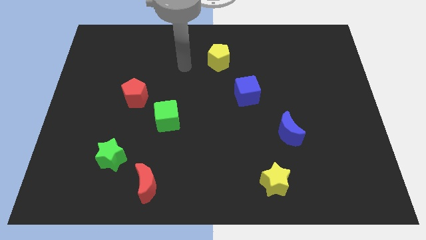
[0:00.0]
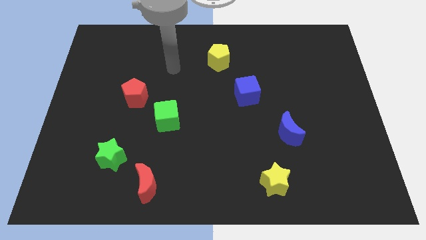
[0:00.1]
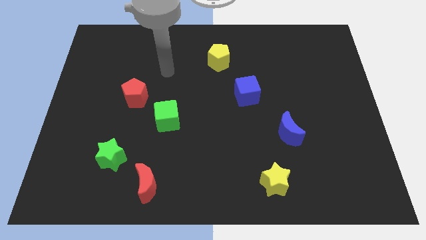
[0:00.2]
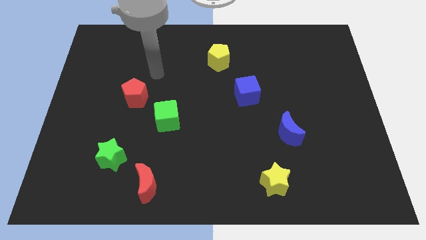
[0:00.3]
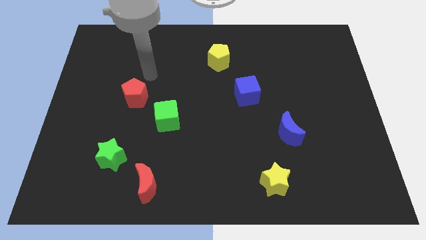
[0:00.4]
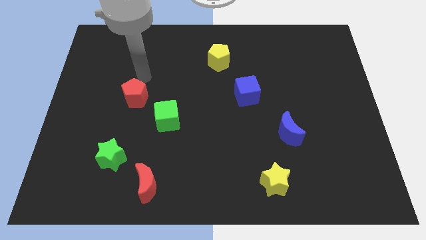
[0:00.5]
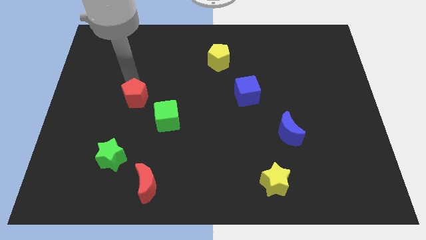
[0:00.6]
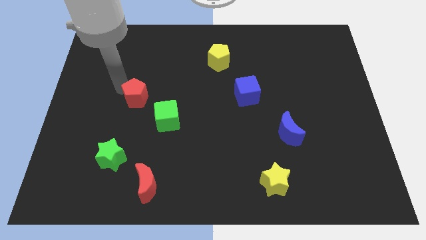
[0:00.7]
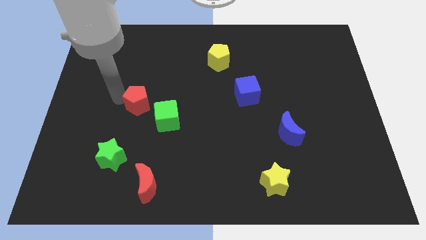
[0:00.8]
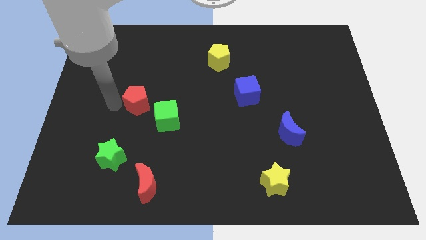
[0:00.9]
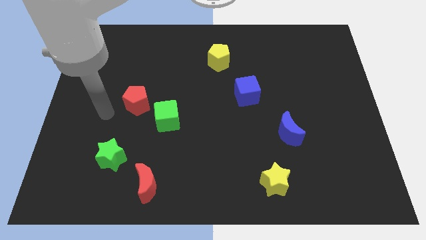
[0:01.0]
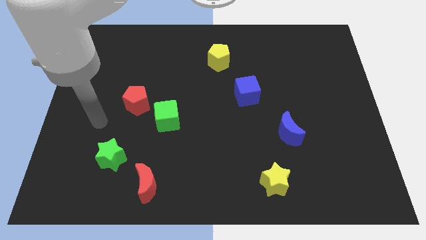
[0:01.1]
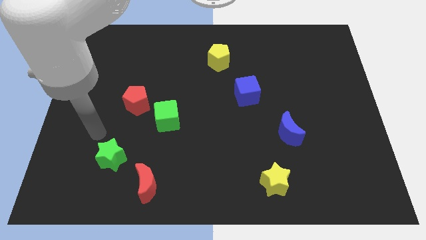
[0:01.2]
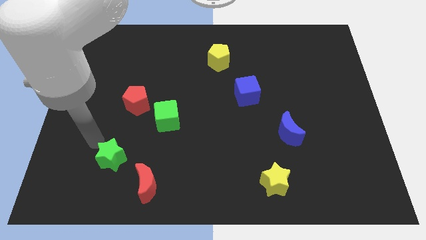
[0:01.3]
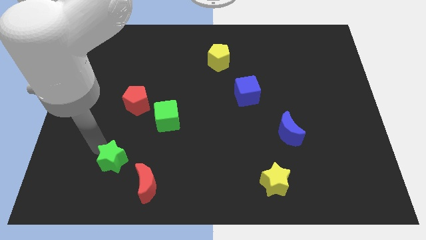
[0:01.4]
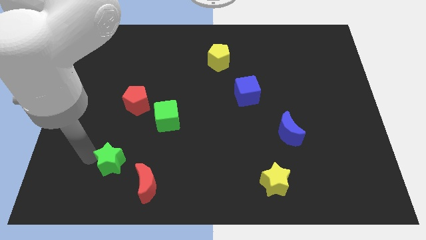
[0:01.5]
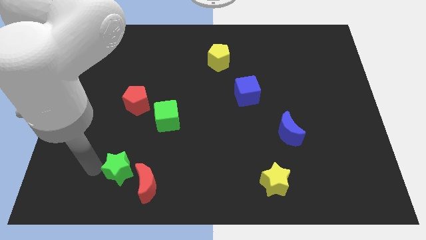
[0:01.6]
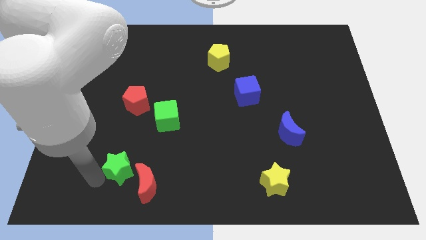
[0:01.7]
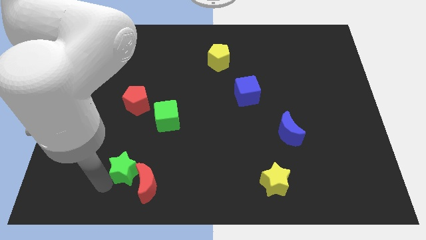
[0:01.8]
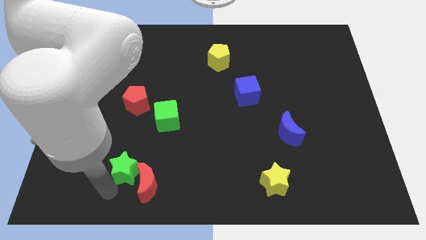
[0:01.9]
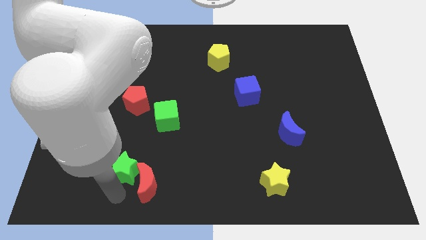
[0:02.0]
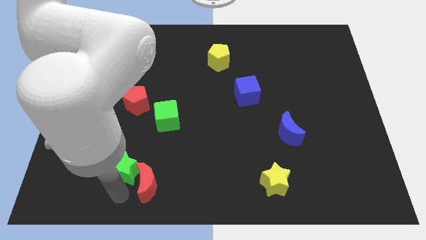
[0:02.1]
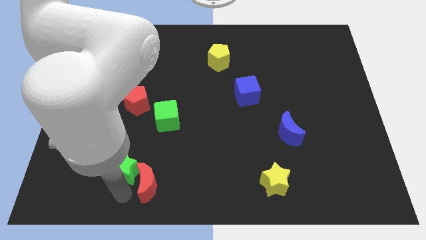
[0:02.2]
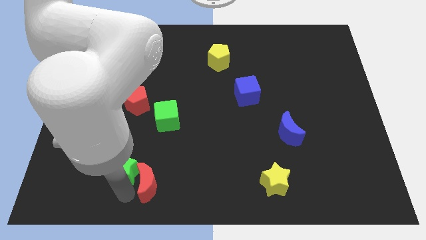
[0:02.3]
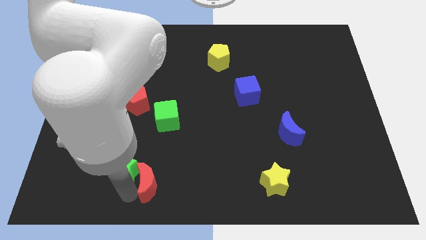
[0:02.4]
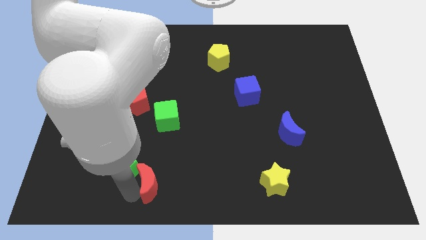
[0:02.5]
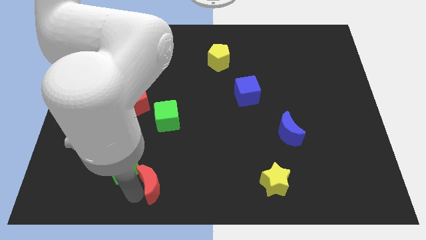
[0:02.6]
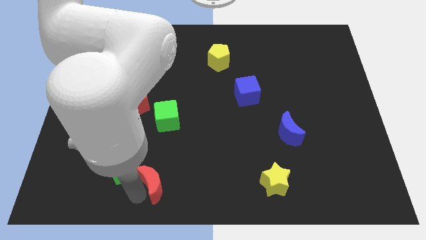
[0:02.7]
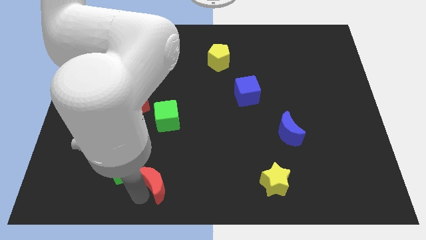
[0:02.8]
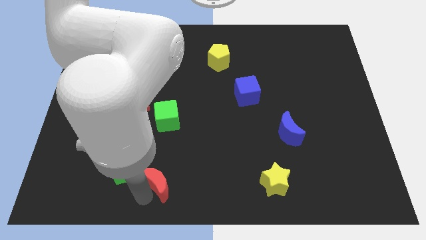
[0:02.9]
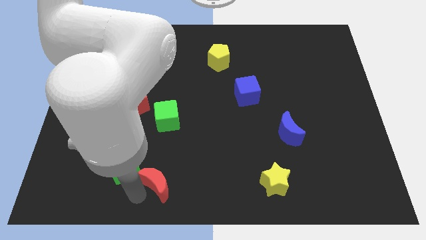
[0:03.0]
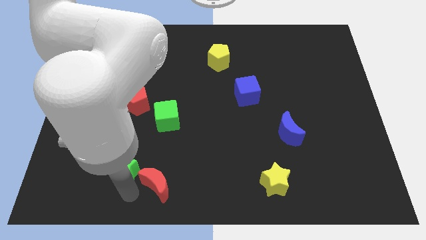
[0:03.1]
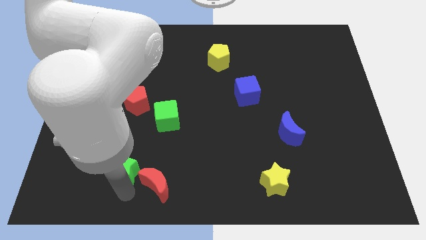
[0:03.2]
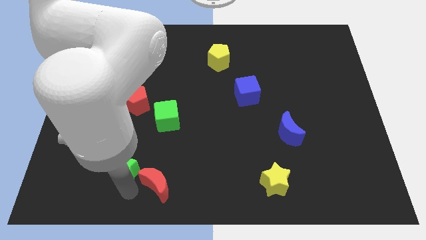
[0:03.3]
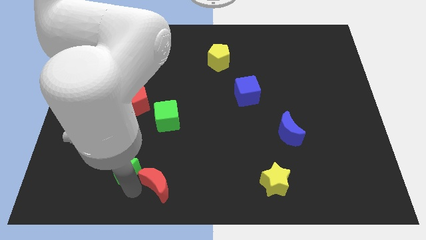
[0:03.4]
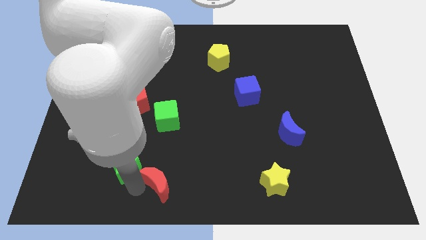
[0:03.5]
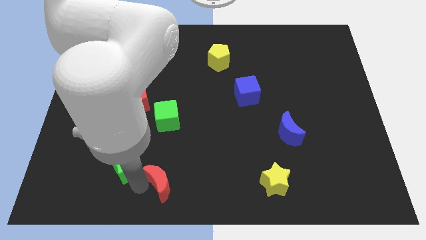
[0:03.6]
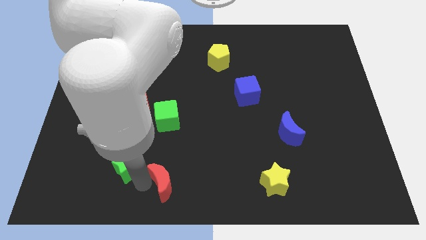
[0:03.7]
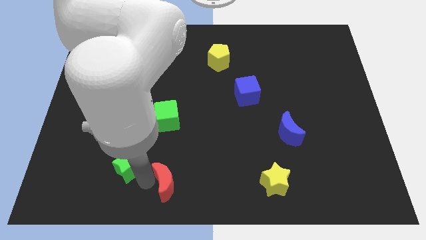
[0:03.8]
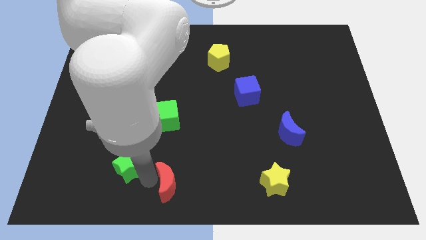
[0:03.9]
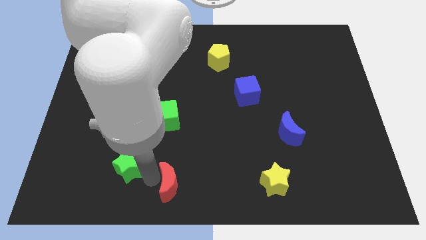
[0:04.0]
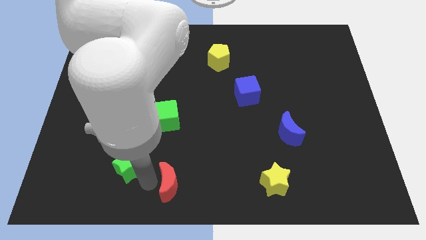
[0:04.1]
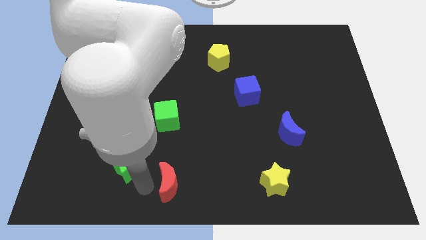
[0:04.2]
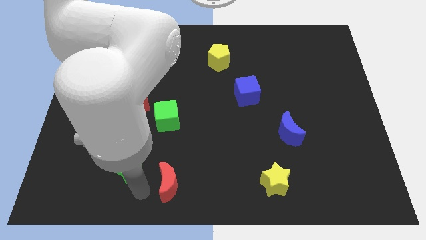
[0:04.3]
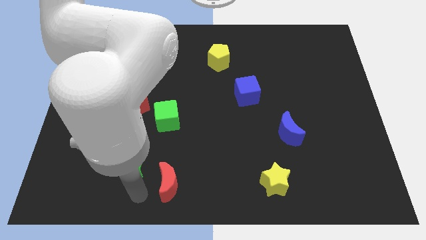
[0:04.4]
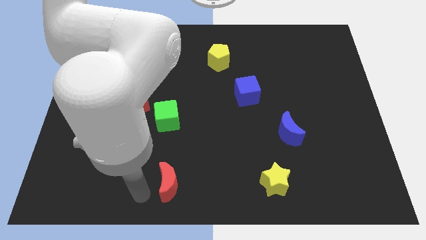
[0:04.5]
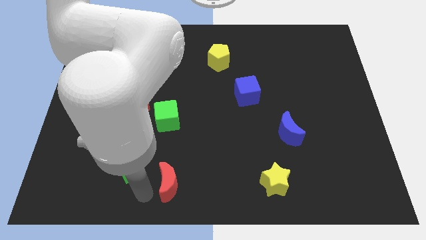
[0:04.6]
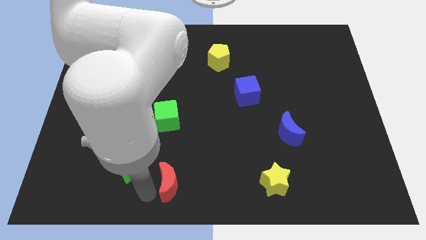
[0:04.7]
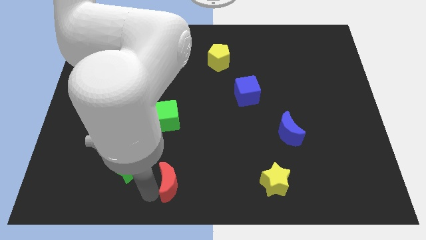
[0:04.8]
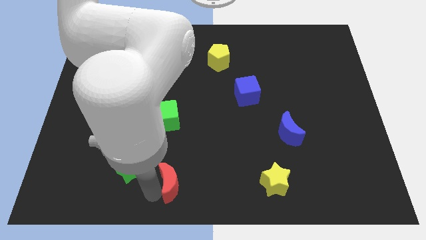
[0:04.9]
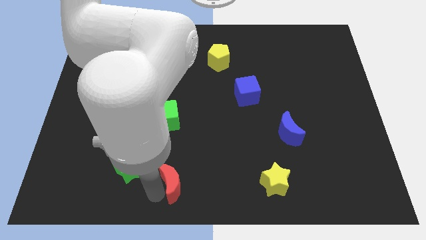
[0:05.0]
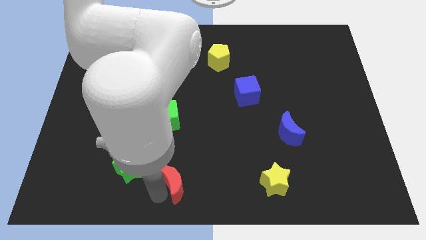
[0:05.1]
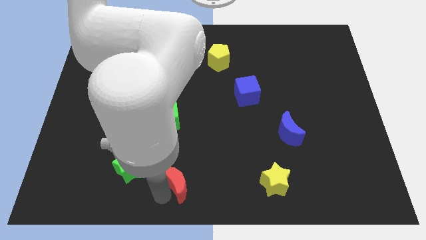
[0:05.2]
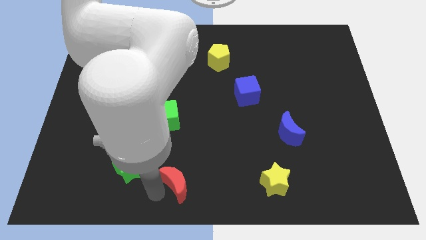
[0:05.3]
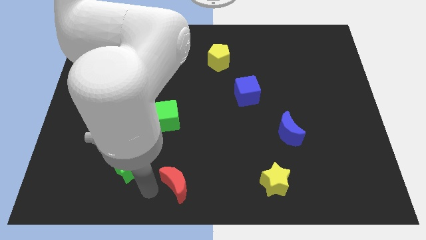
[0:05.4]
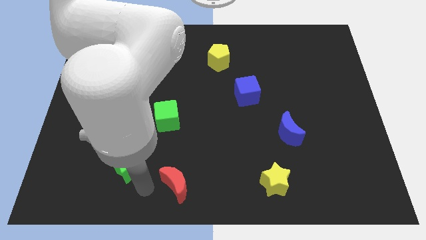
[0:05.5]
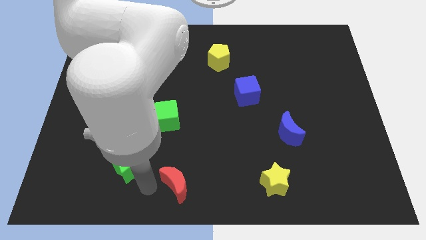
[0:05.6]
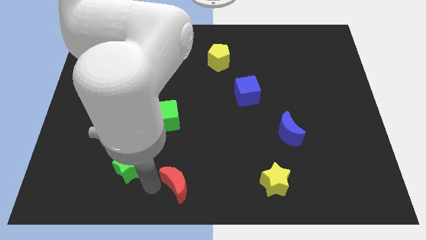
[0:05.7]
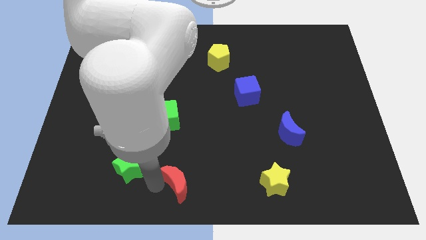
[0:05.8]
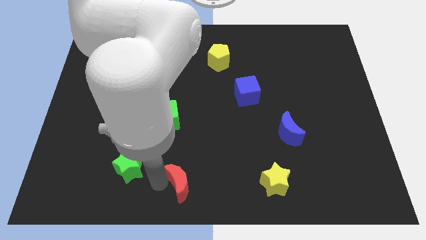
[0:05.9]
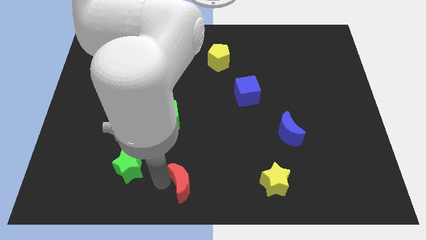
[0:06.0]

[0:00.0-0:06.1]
slightly slide the red moon to the right

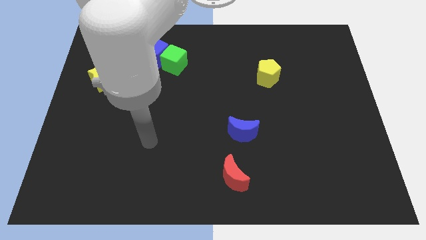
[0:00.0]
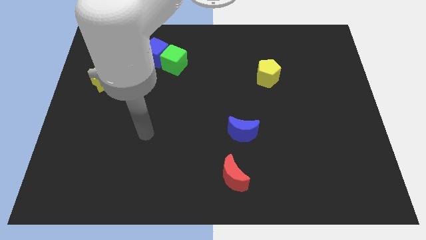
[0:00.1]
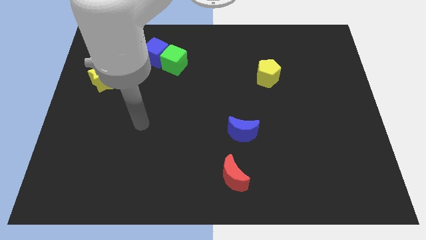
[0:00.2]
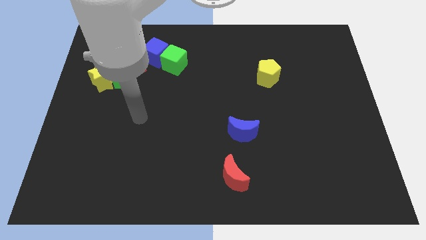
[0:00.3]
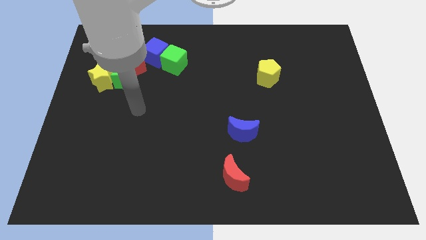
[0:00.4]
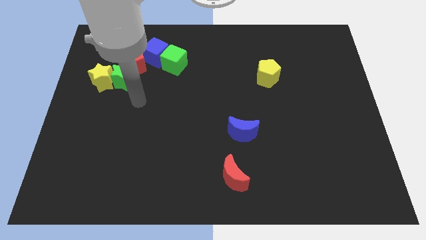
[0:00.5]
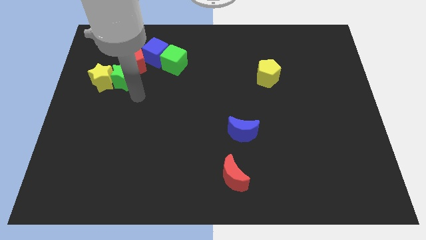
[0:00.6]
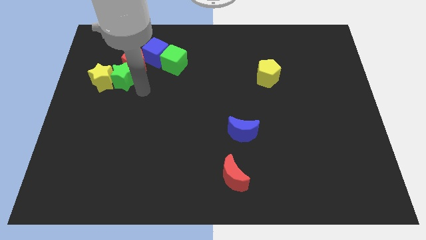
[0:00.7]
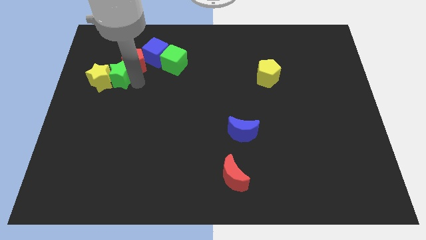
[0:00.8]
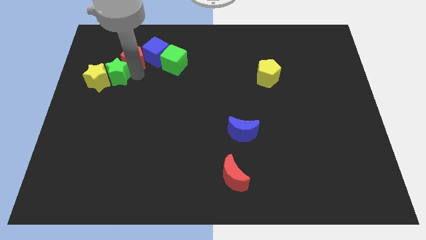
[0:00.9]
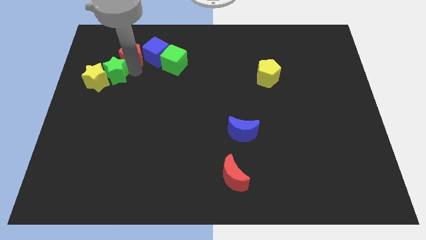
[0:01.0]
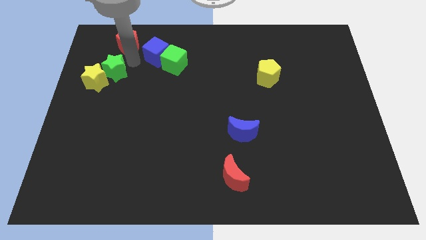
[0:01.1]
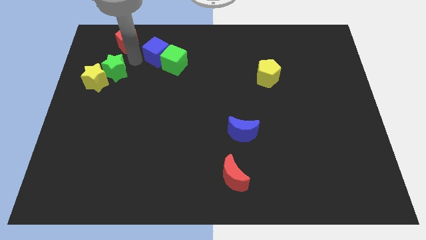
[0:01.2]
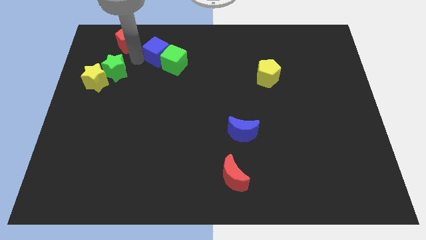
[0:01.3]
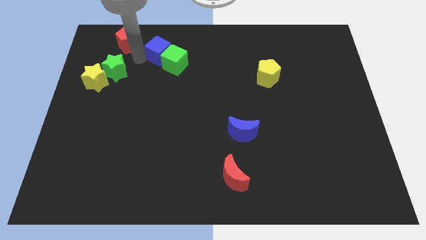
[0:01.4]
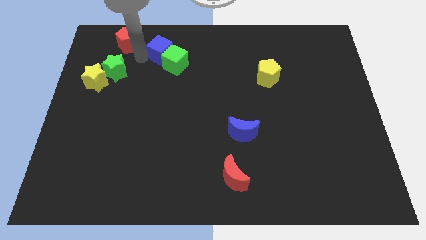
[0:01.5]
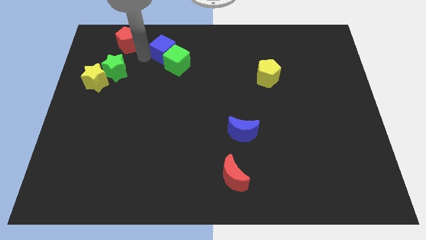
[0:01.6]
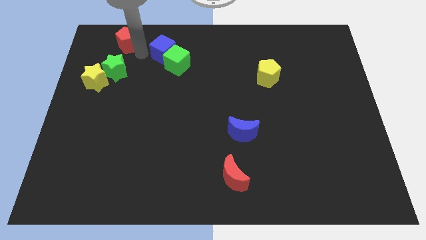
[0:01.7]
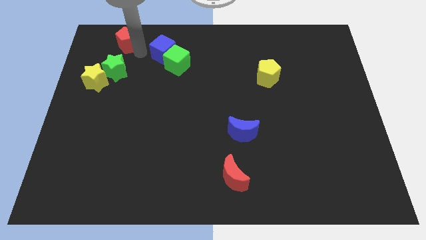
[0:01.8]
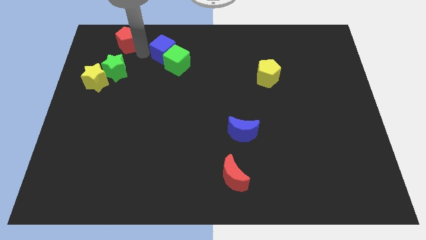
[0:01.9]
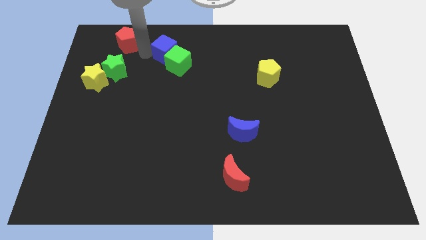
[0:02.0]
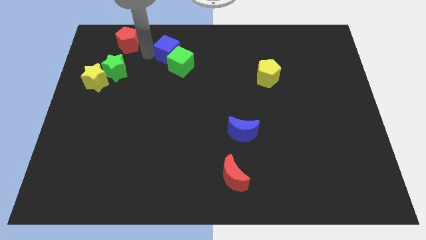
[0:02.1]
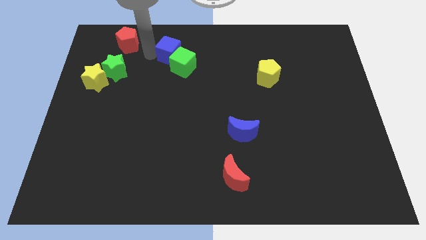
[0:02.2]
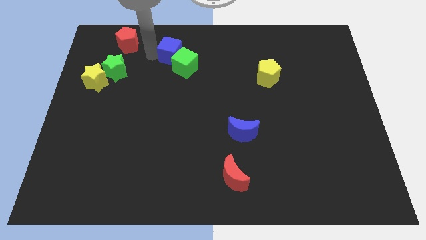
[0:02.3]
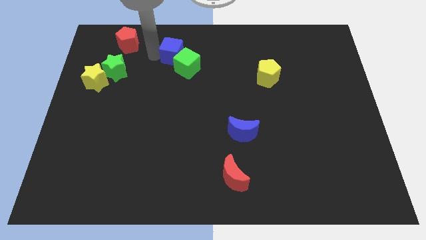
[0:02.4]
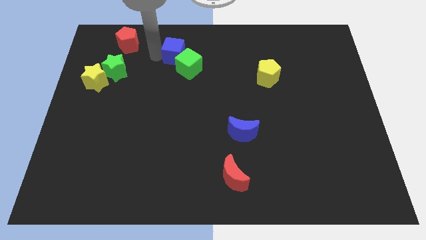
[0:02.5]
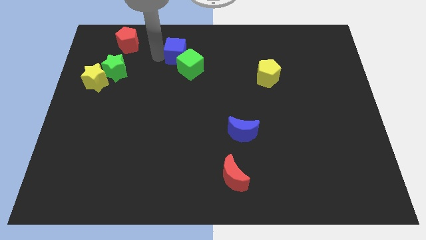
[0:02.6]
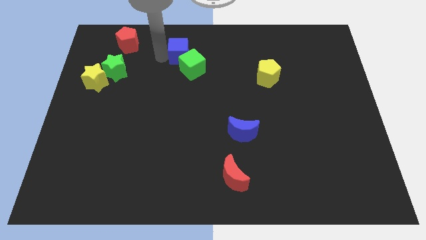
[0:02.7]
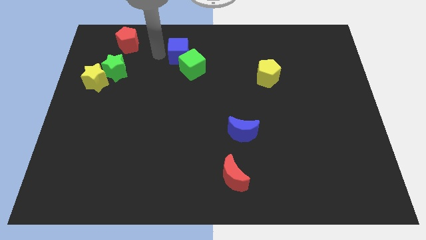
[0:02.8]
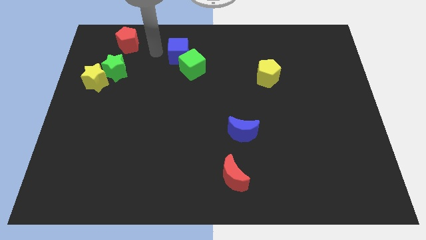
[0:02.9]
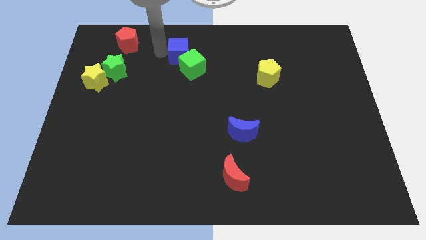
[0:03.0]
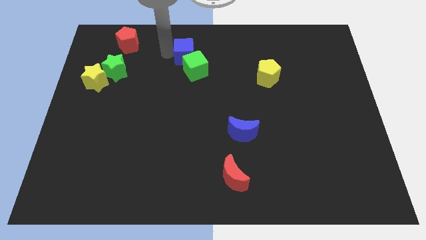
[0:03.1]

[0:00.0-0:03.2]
move the blue cube slightly to the right
